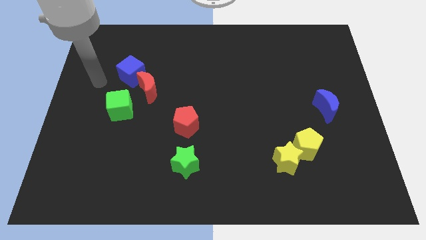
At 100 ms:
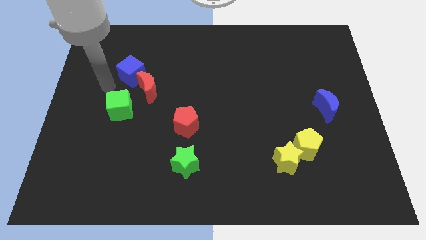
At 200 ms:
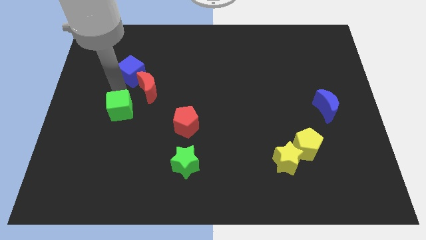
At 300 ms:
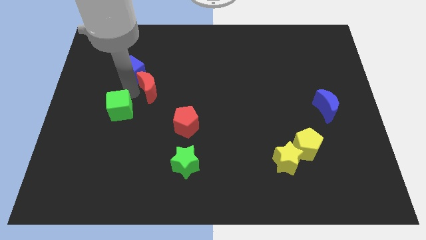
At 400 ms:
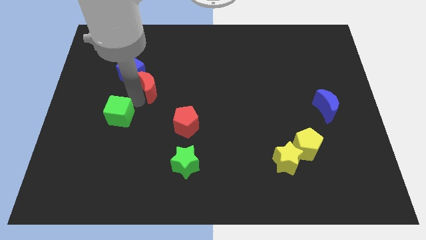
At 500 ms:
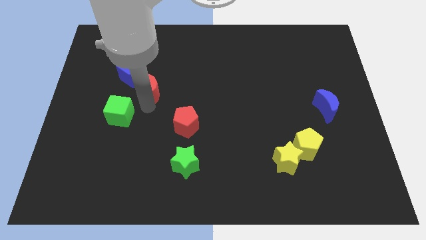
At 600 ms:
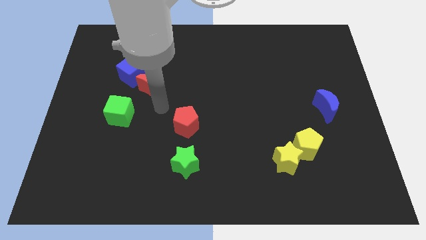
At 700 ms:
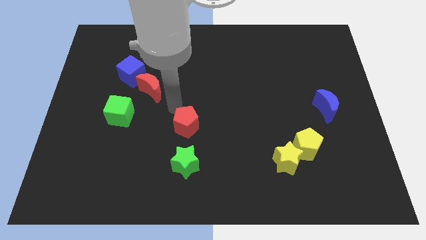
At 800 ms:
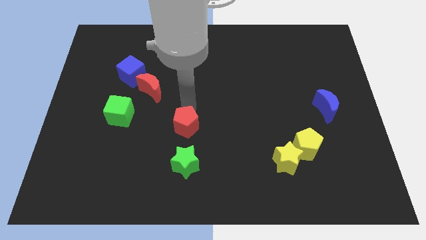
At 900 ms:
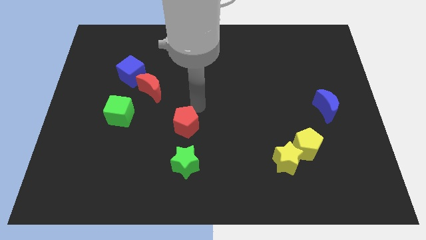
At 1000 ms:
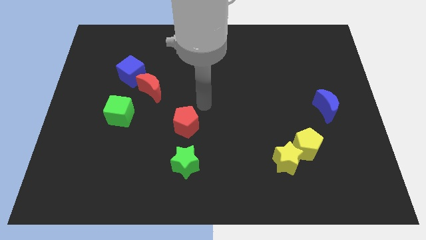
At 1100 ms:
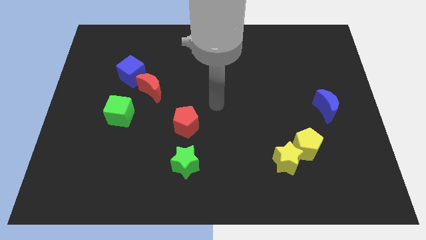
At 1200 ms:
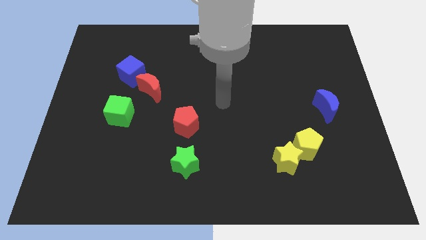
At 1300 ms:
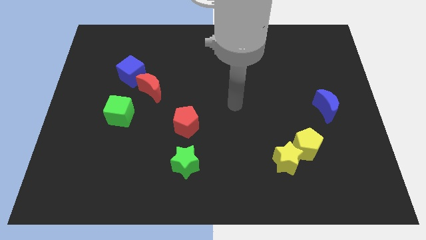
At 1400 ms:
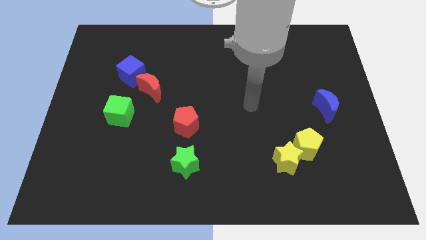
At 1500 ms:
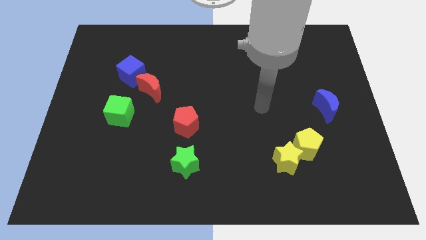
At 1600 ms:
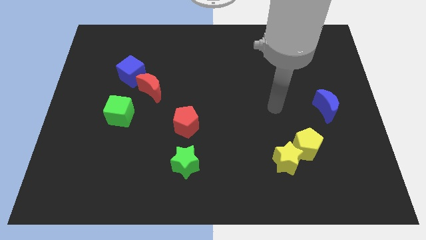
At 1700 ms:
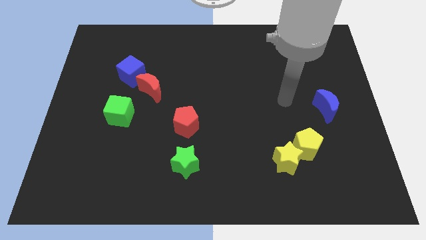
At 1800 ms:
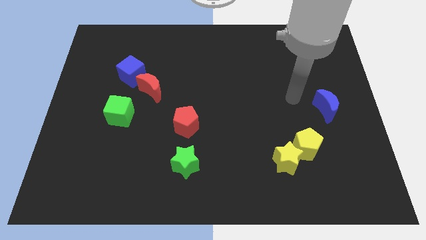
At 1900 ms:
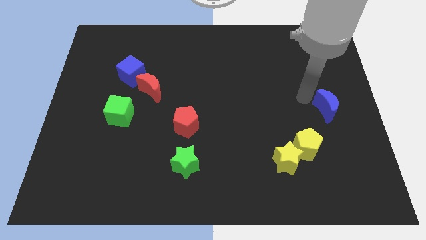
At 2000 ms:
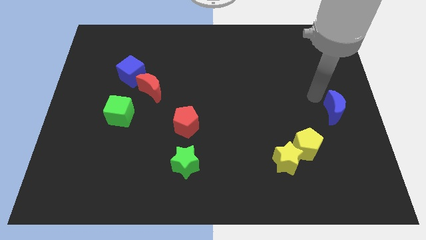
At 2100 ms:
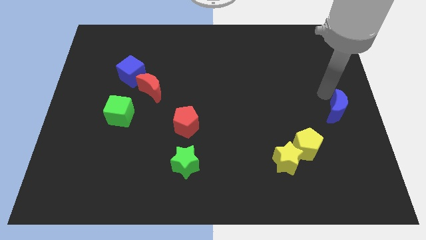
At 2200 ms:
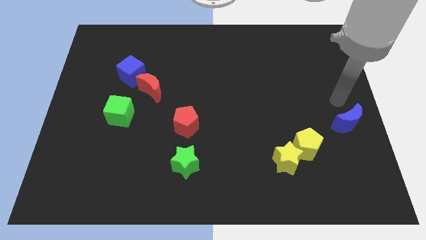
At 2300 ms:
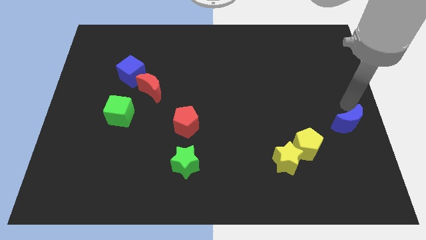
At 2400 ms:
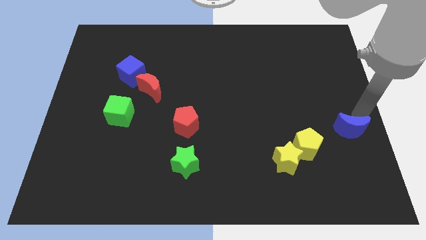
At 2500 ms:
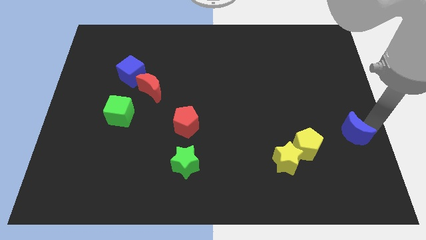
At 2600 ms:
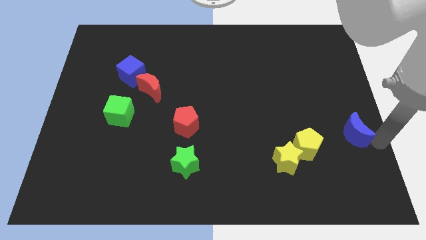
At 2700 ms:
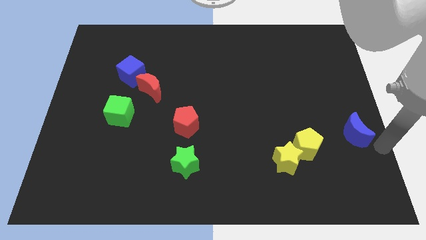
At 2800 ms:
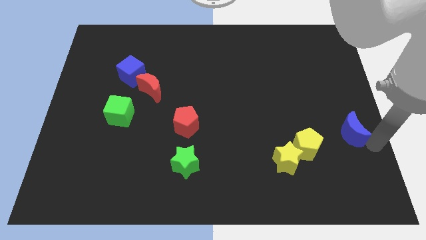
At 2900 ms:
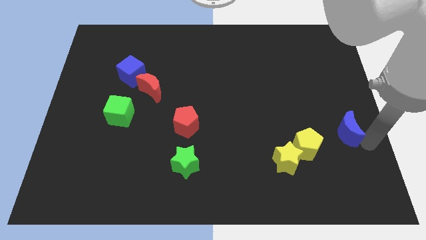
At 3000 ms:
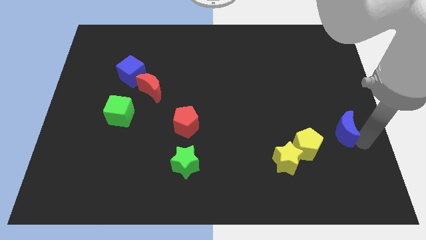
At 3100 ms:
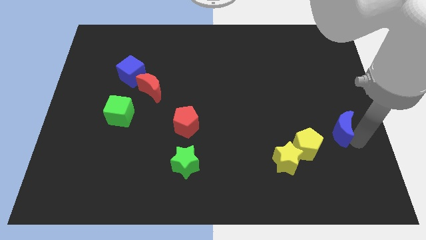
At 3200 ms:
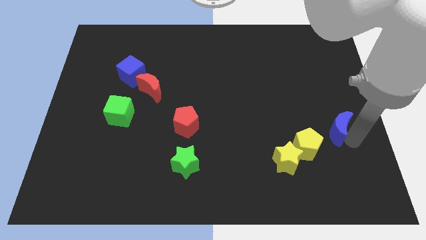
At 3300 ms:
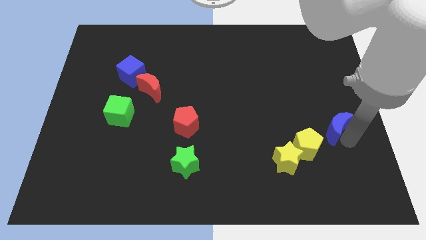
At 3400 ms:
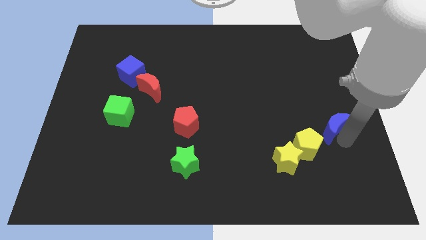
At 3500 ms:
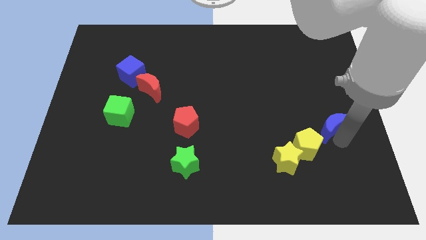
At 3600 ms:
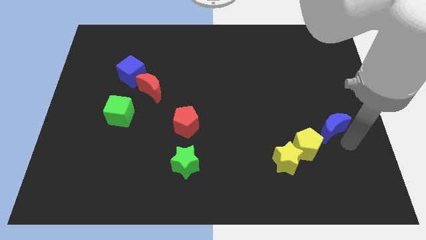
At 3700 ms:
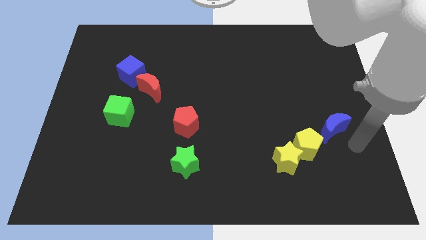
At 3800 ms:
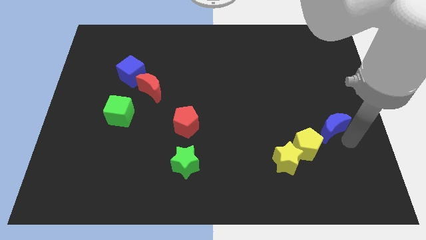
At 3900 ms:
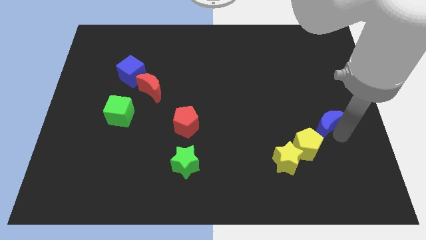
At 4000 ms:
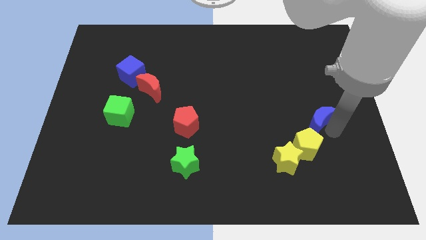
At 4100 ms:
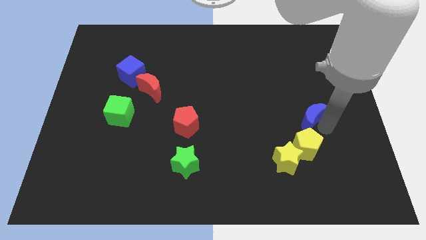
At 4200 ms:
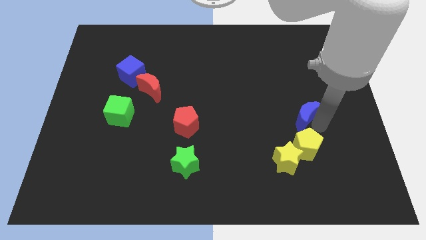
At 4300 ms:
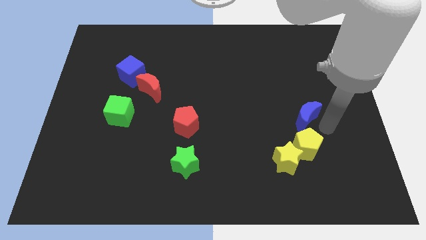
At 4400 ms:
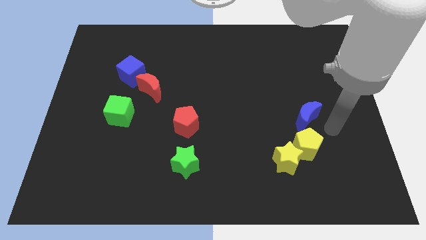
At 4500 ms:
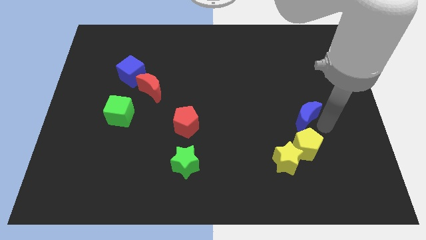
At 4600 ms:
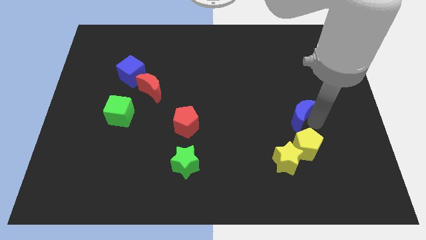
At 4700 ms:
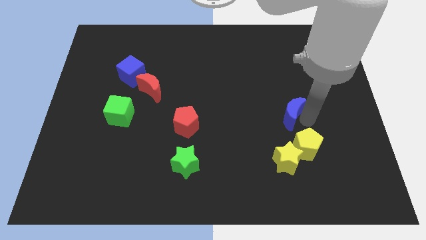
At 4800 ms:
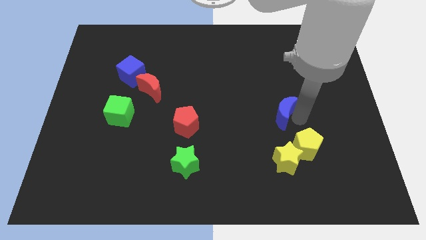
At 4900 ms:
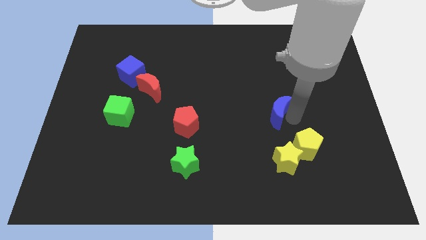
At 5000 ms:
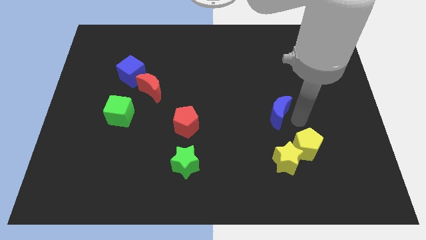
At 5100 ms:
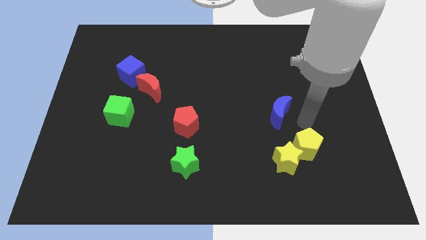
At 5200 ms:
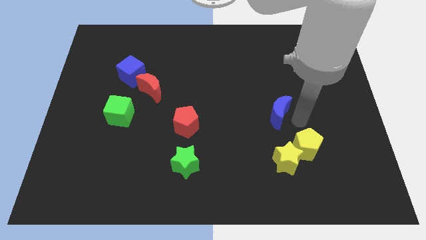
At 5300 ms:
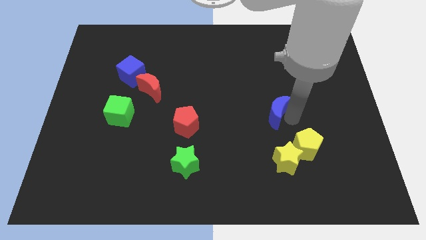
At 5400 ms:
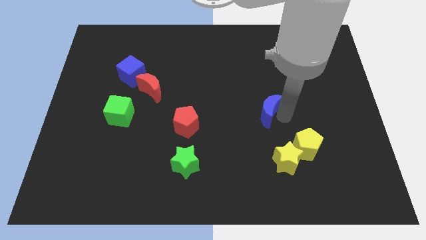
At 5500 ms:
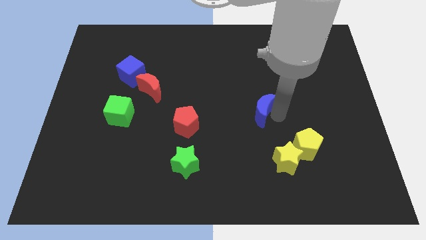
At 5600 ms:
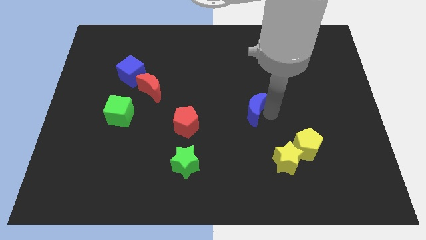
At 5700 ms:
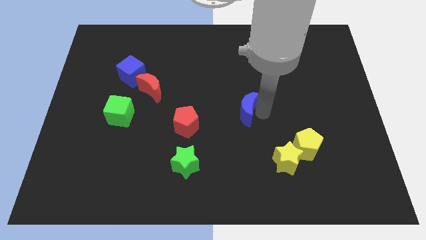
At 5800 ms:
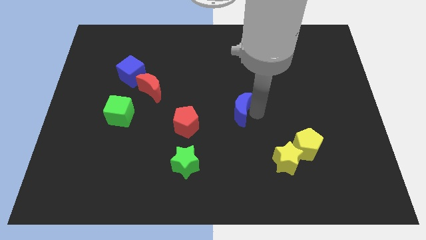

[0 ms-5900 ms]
move the blue moon left

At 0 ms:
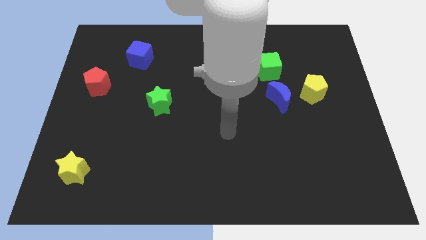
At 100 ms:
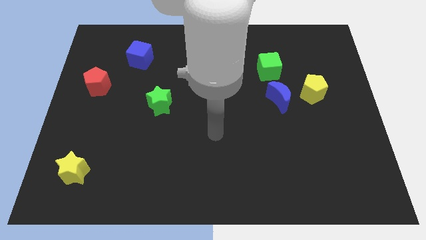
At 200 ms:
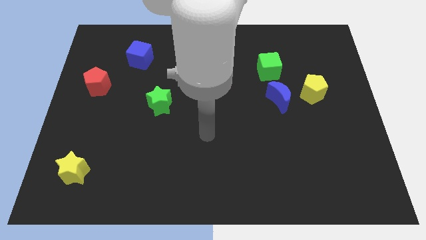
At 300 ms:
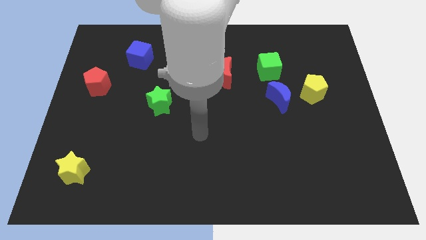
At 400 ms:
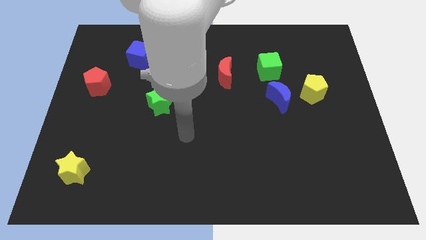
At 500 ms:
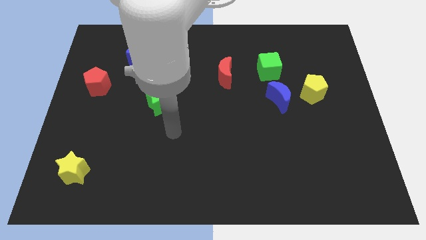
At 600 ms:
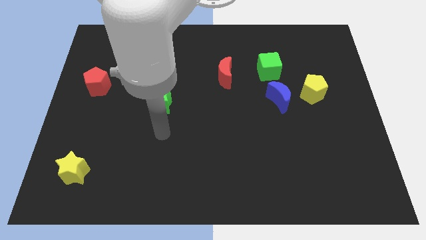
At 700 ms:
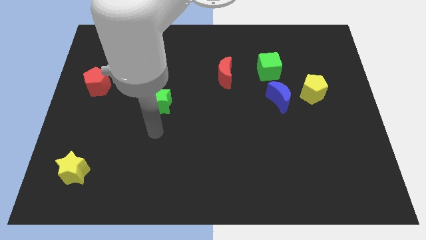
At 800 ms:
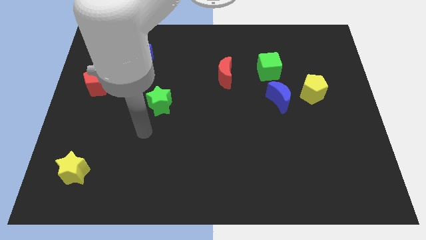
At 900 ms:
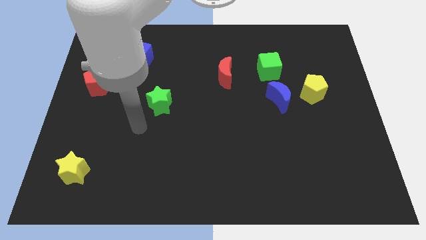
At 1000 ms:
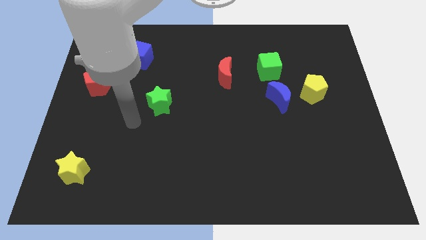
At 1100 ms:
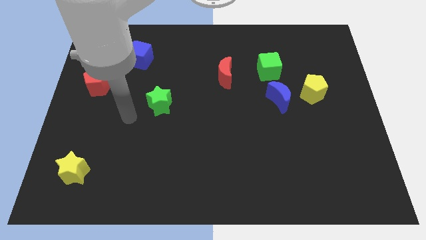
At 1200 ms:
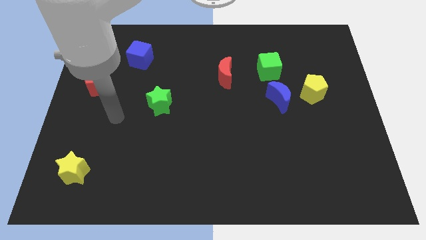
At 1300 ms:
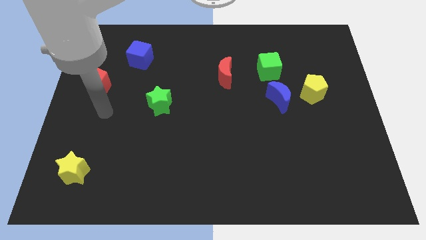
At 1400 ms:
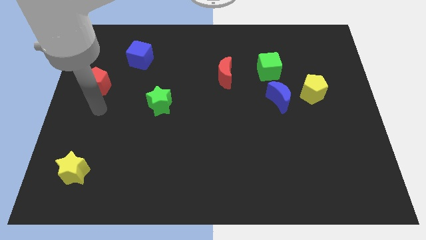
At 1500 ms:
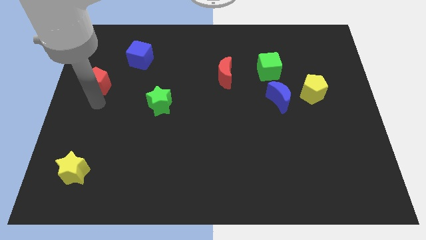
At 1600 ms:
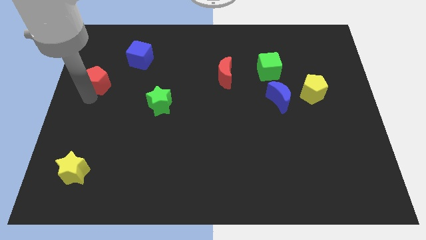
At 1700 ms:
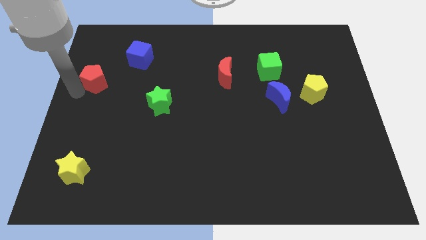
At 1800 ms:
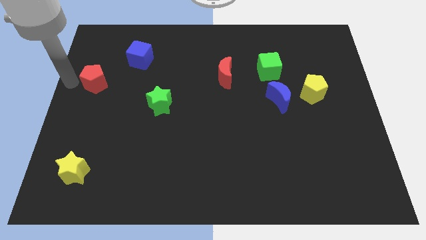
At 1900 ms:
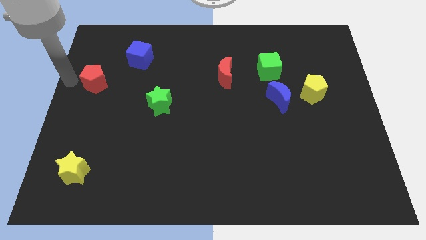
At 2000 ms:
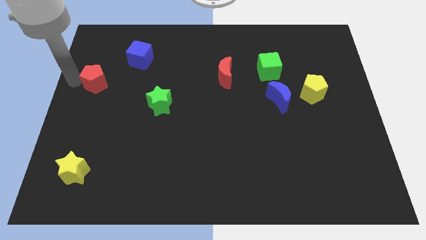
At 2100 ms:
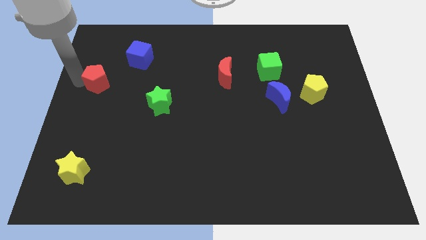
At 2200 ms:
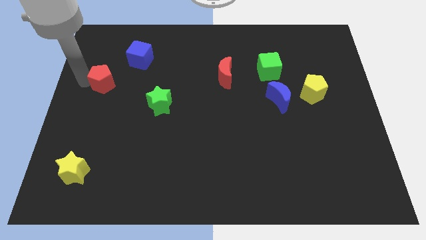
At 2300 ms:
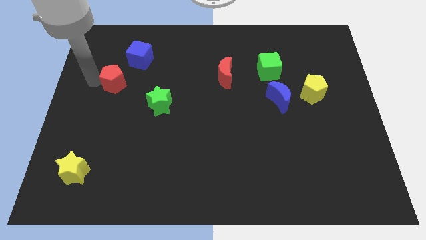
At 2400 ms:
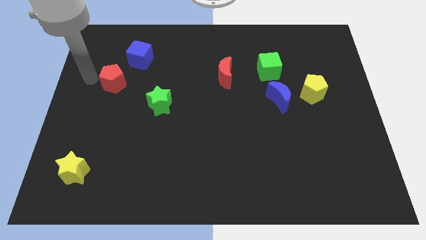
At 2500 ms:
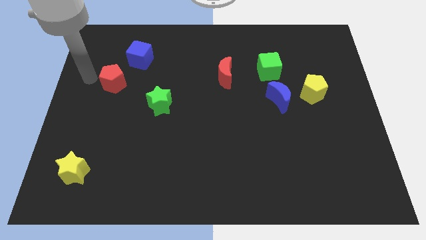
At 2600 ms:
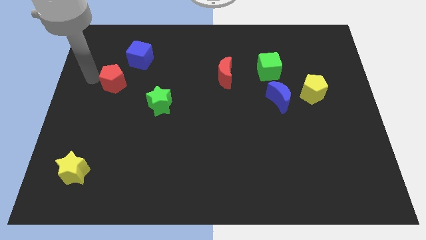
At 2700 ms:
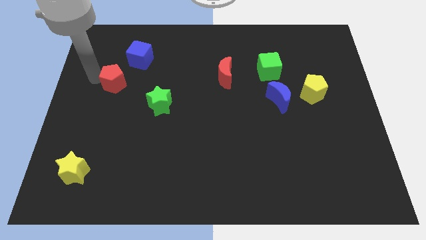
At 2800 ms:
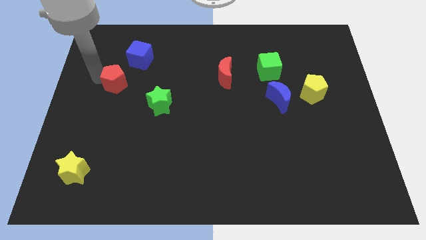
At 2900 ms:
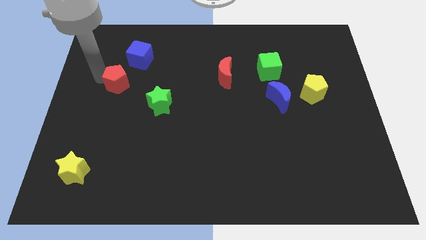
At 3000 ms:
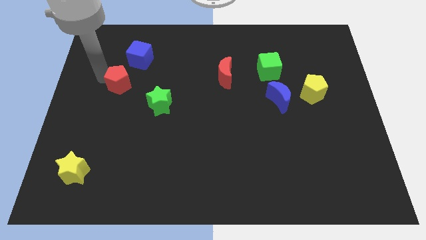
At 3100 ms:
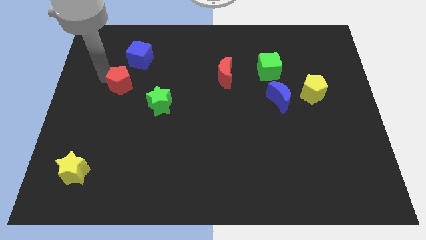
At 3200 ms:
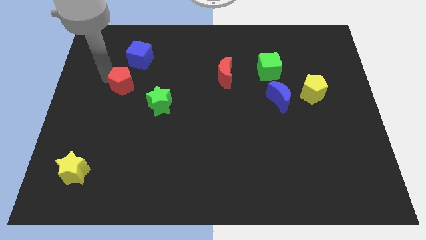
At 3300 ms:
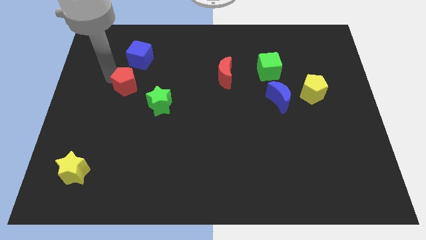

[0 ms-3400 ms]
move the red pentagon somewhat to the right
